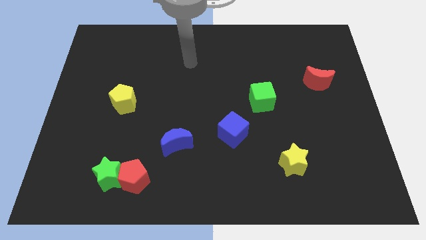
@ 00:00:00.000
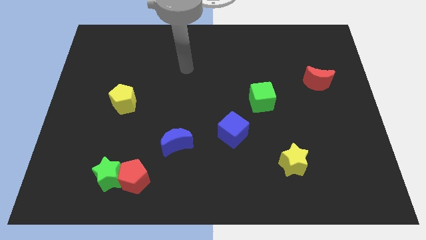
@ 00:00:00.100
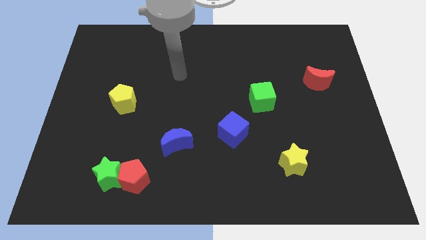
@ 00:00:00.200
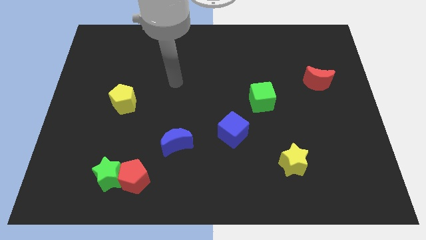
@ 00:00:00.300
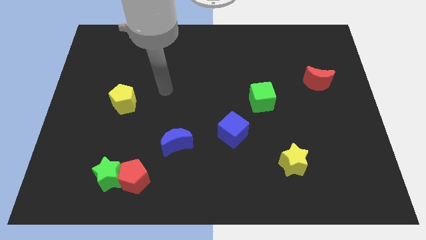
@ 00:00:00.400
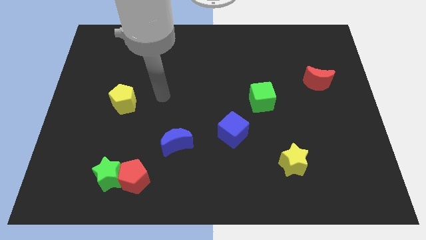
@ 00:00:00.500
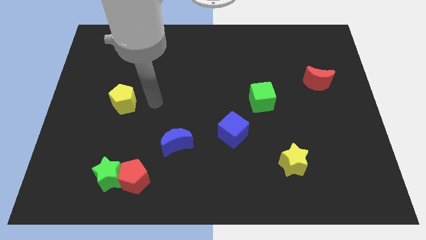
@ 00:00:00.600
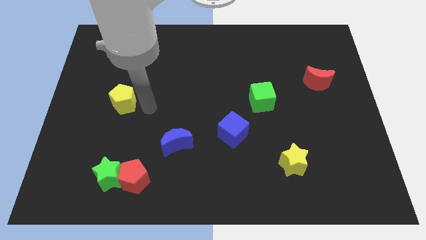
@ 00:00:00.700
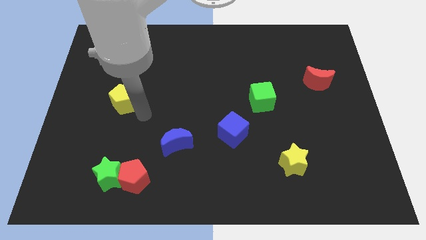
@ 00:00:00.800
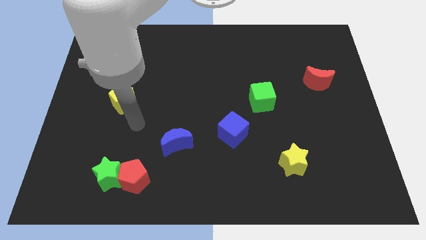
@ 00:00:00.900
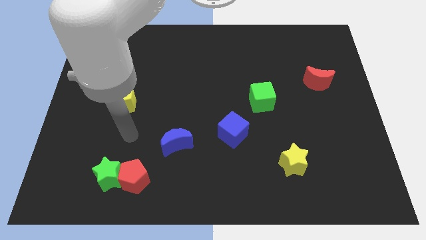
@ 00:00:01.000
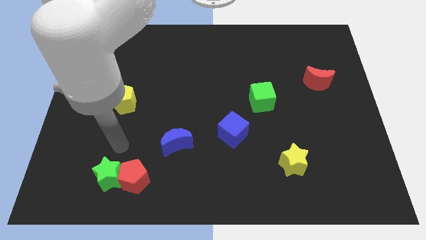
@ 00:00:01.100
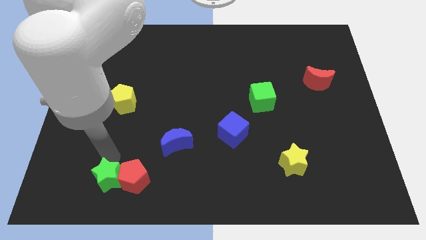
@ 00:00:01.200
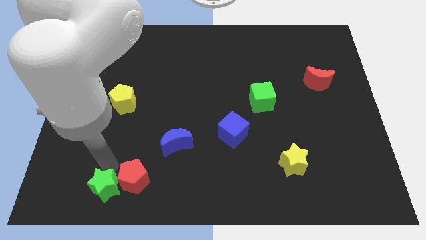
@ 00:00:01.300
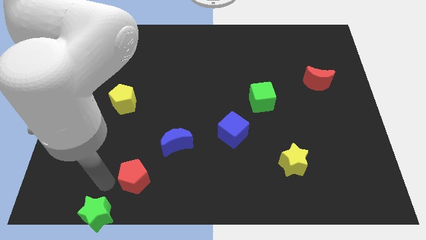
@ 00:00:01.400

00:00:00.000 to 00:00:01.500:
move the red pentagon away from the green star

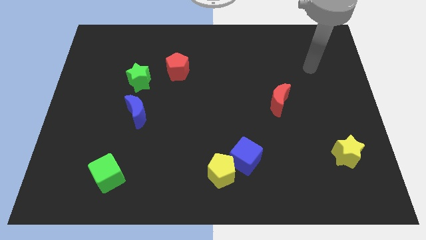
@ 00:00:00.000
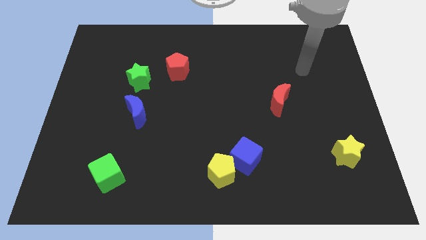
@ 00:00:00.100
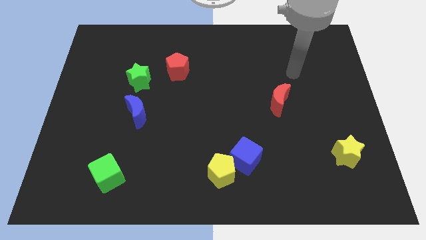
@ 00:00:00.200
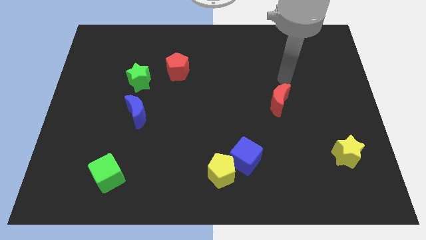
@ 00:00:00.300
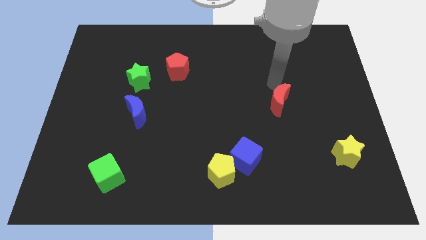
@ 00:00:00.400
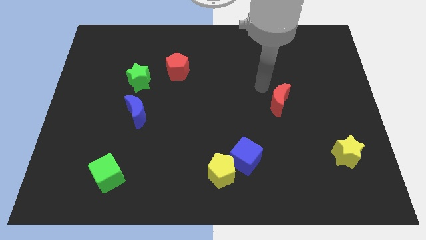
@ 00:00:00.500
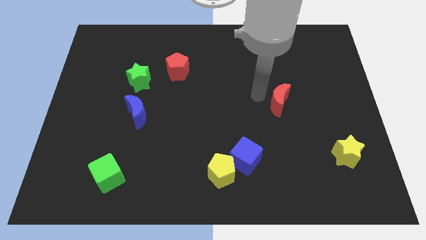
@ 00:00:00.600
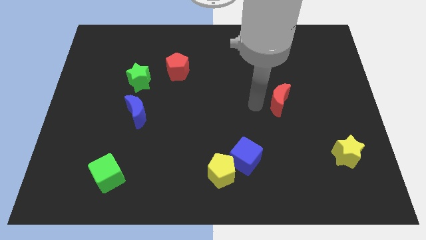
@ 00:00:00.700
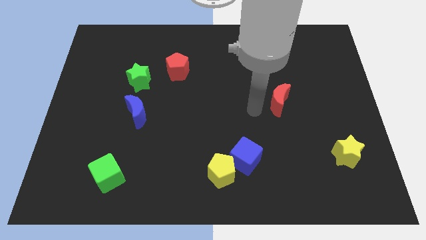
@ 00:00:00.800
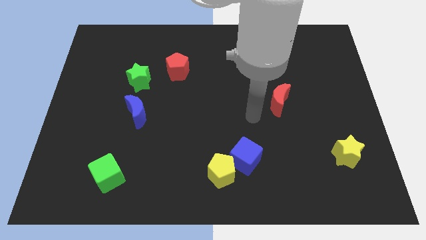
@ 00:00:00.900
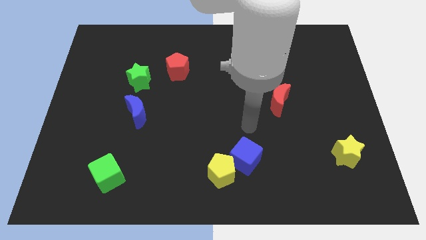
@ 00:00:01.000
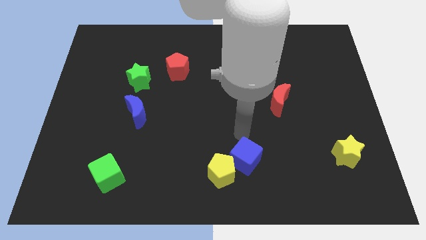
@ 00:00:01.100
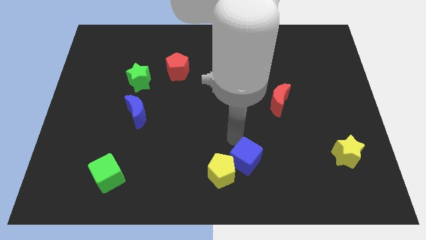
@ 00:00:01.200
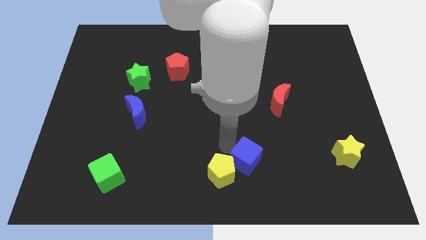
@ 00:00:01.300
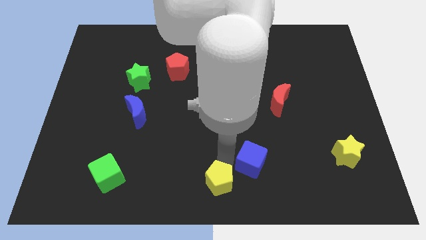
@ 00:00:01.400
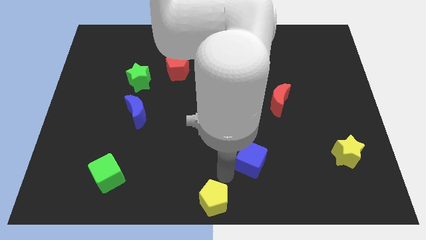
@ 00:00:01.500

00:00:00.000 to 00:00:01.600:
separate the blue cube from the yellow pentagon

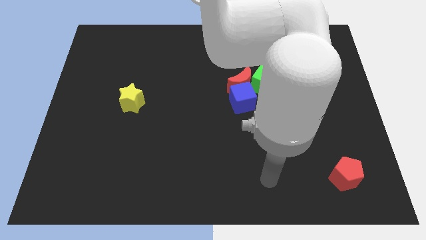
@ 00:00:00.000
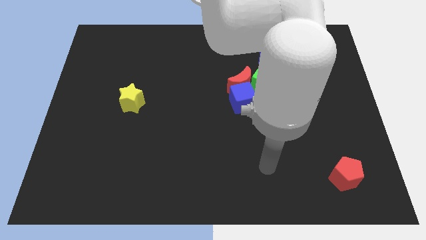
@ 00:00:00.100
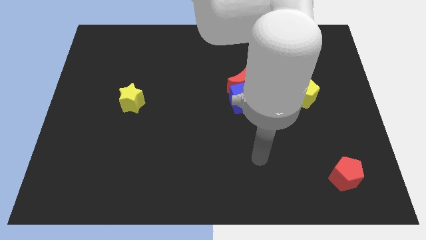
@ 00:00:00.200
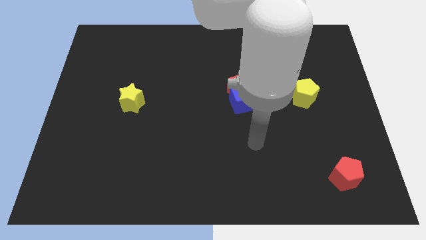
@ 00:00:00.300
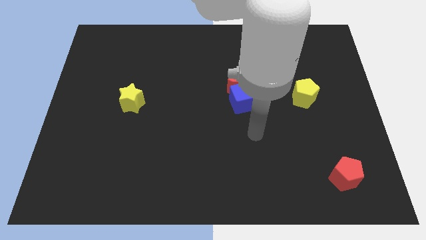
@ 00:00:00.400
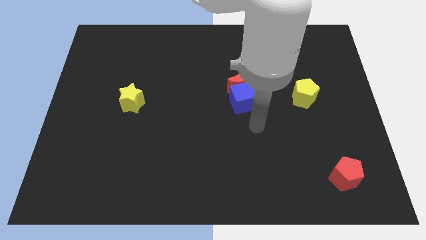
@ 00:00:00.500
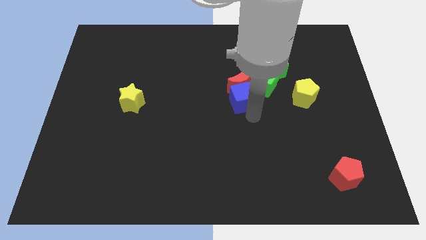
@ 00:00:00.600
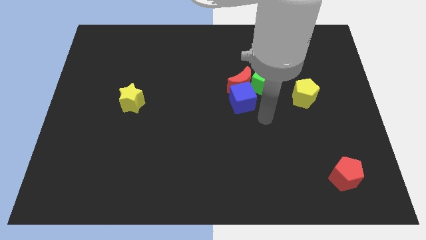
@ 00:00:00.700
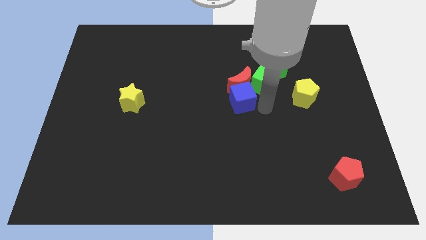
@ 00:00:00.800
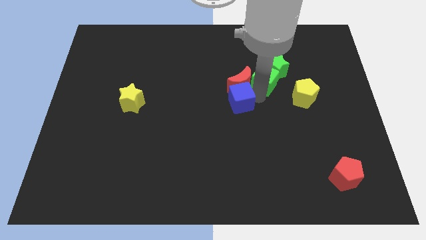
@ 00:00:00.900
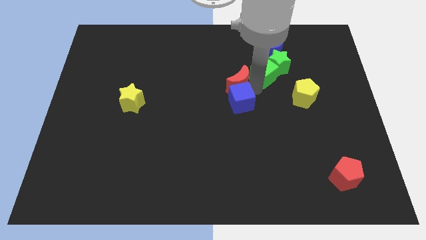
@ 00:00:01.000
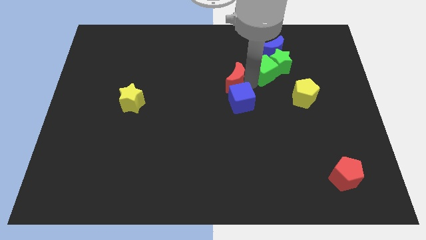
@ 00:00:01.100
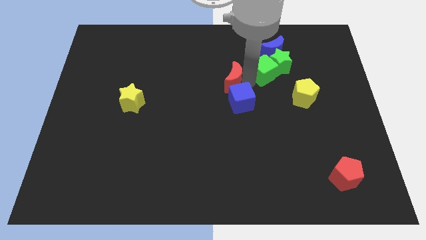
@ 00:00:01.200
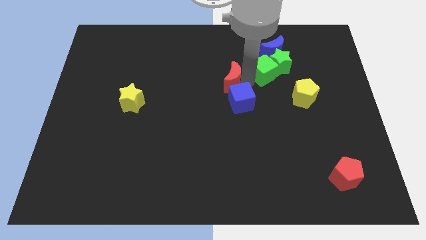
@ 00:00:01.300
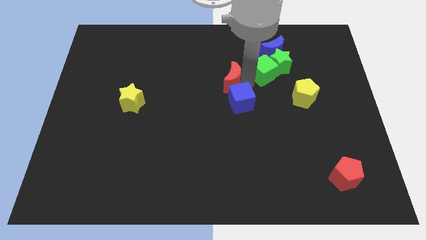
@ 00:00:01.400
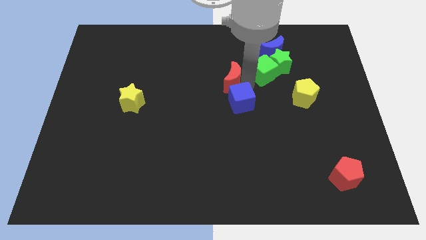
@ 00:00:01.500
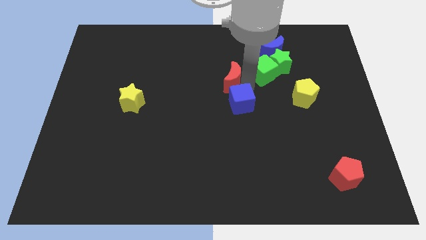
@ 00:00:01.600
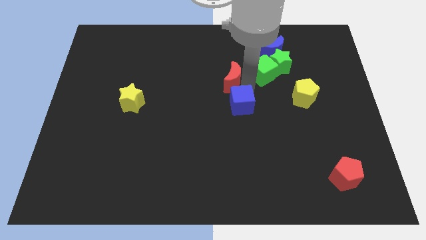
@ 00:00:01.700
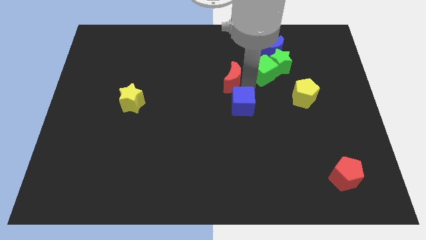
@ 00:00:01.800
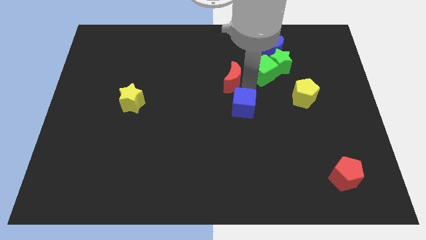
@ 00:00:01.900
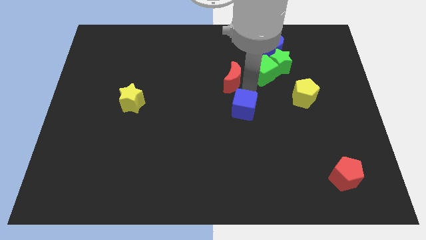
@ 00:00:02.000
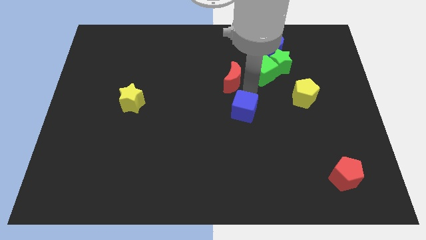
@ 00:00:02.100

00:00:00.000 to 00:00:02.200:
pull the blue cube apart from the red moon and green cube

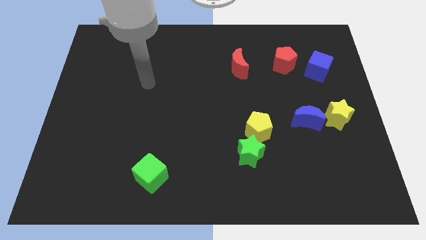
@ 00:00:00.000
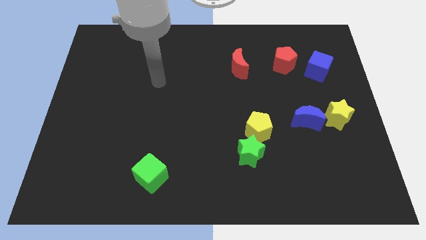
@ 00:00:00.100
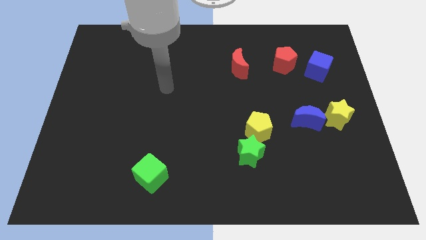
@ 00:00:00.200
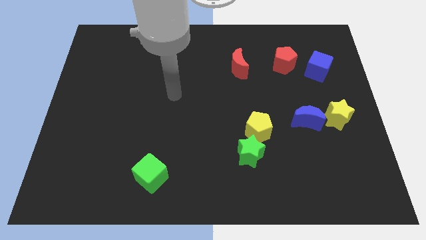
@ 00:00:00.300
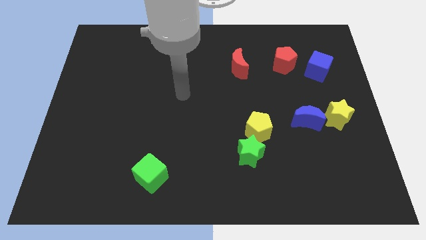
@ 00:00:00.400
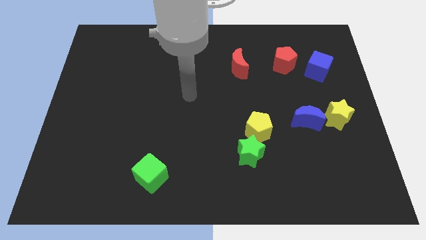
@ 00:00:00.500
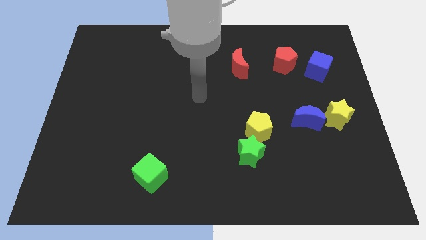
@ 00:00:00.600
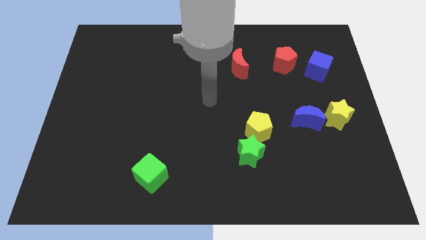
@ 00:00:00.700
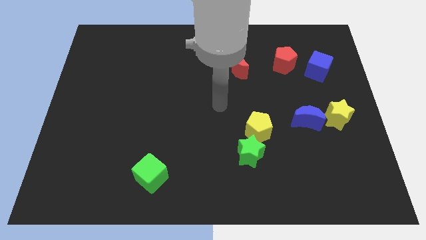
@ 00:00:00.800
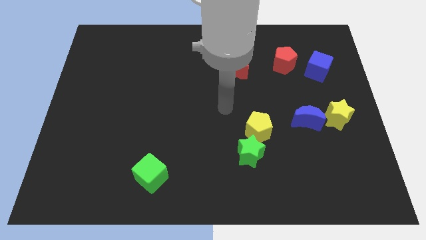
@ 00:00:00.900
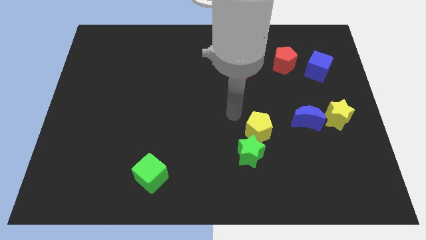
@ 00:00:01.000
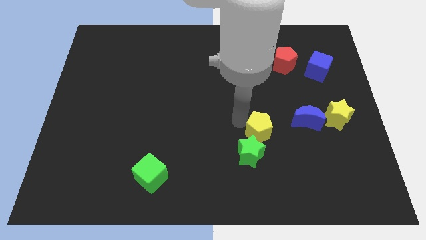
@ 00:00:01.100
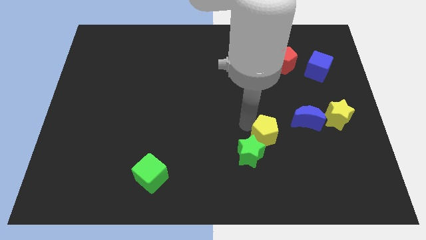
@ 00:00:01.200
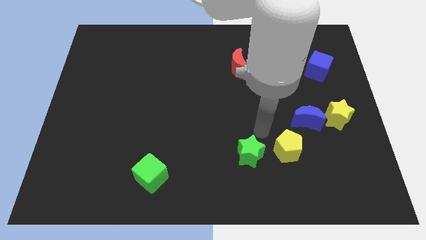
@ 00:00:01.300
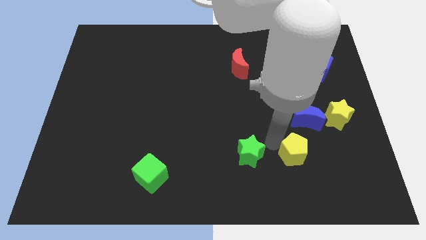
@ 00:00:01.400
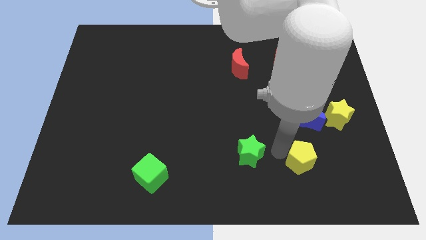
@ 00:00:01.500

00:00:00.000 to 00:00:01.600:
separate the green star from the yellow pentagon

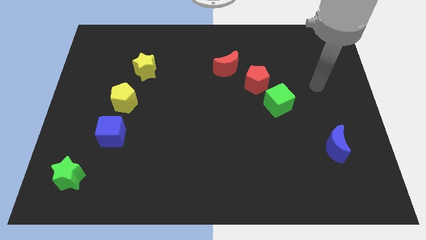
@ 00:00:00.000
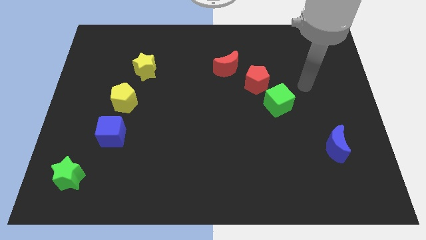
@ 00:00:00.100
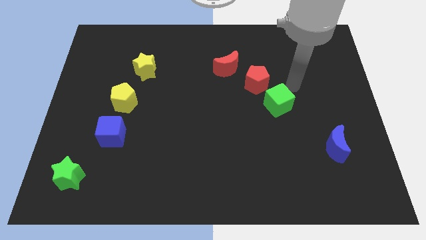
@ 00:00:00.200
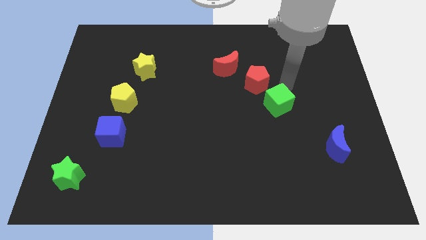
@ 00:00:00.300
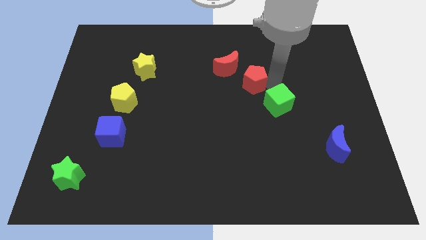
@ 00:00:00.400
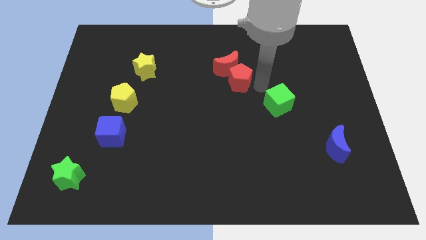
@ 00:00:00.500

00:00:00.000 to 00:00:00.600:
separate the green cube from the red pentagon

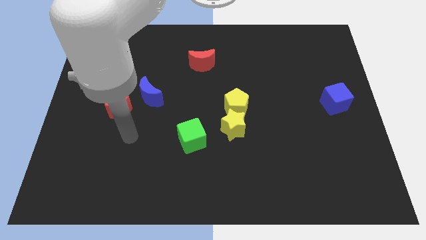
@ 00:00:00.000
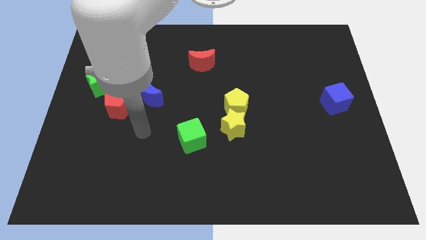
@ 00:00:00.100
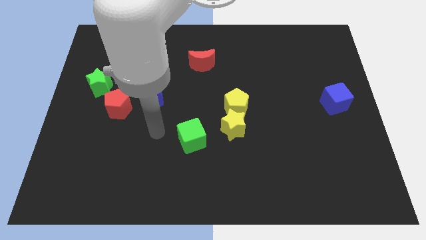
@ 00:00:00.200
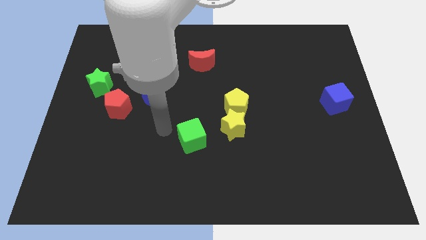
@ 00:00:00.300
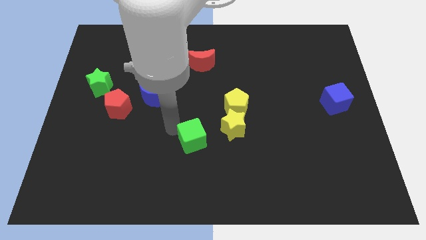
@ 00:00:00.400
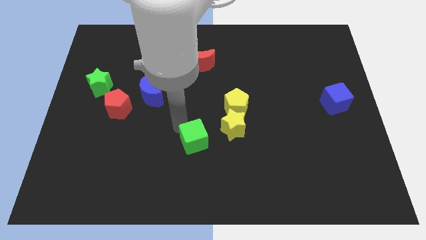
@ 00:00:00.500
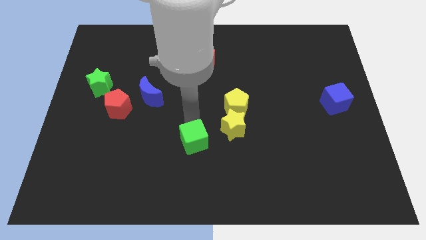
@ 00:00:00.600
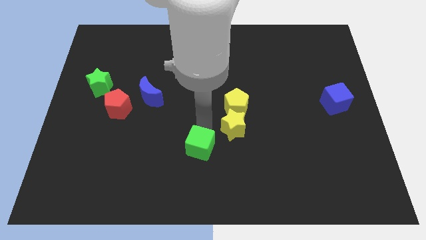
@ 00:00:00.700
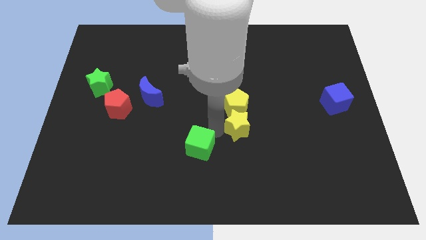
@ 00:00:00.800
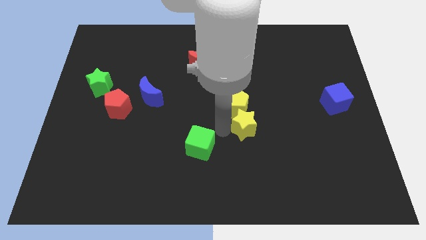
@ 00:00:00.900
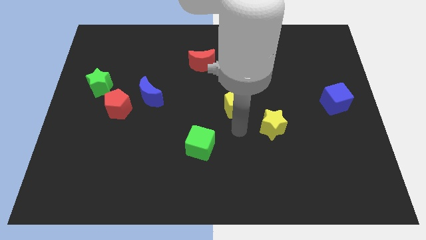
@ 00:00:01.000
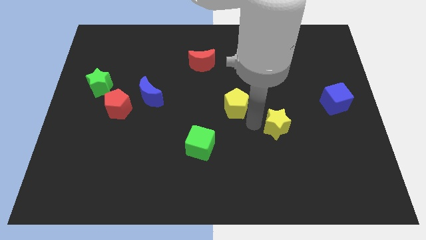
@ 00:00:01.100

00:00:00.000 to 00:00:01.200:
separate the yellow pentagon from the yellow star

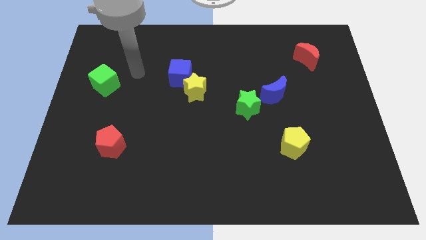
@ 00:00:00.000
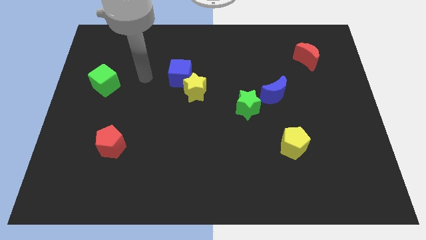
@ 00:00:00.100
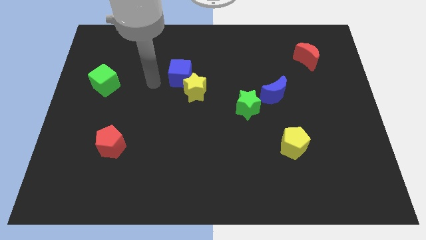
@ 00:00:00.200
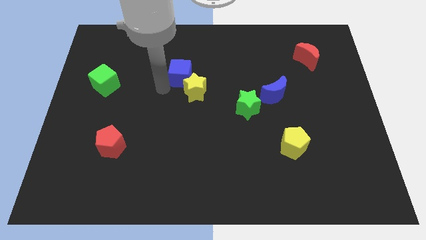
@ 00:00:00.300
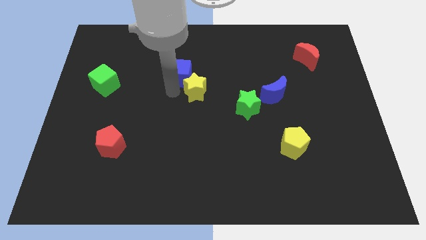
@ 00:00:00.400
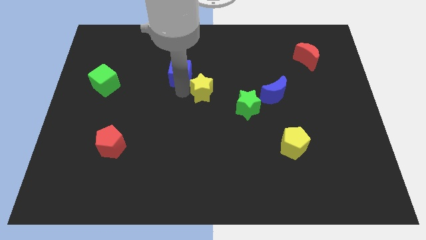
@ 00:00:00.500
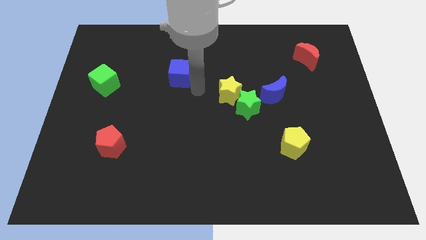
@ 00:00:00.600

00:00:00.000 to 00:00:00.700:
pull the blue cube apart from the yellow star
